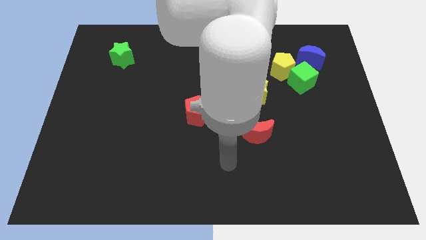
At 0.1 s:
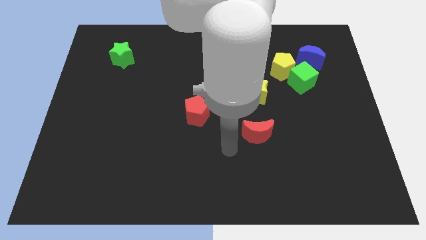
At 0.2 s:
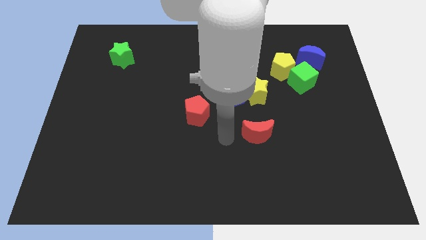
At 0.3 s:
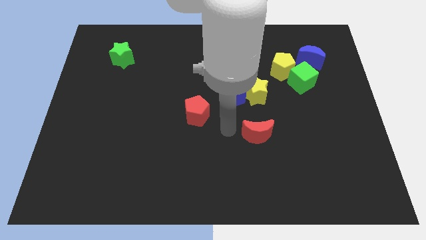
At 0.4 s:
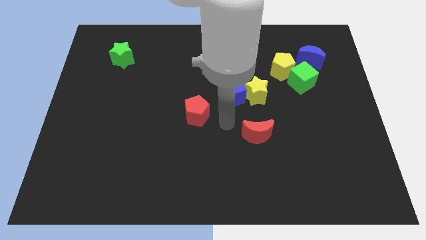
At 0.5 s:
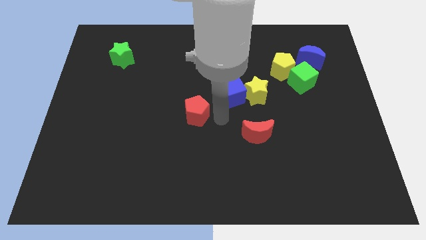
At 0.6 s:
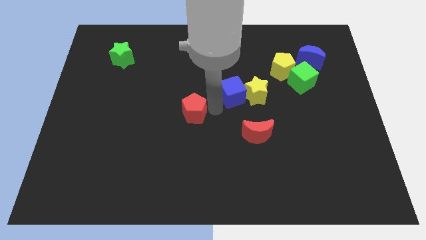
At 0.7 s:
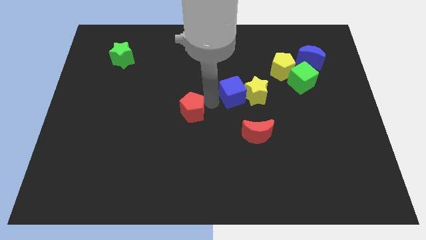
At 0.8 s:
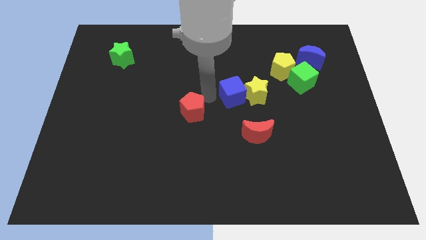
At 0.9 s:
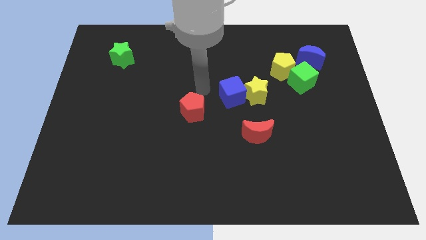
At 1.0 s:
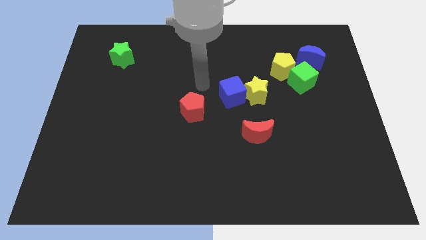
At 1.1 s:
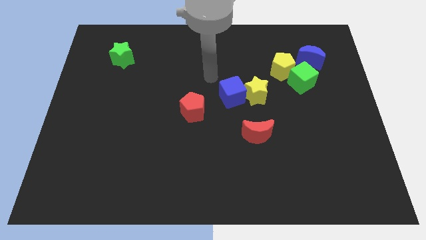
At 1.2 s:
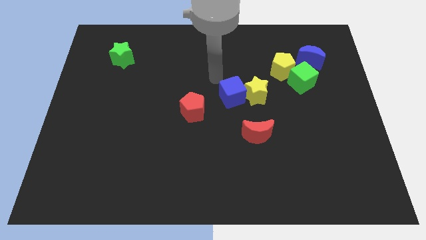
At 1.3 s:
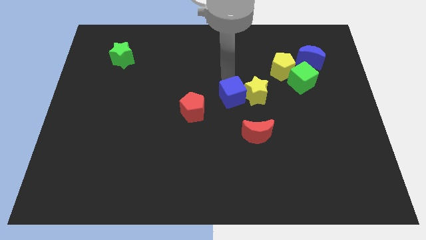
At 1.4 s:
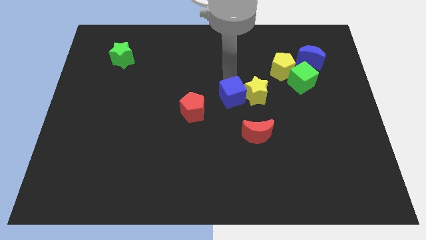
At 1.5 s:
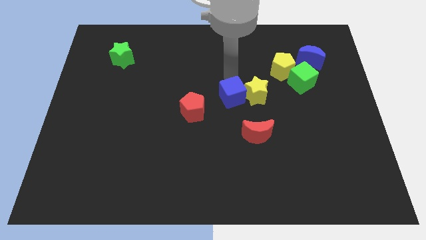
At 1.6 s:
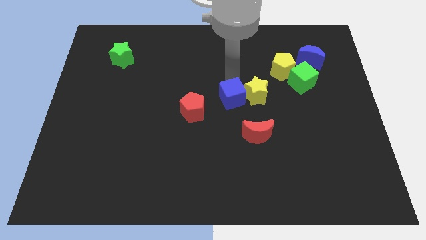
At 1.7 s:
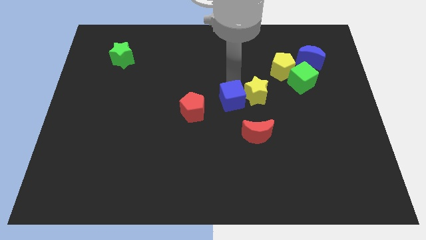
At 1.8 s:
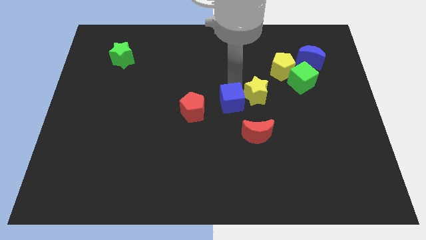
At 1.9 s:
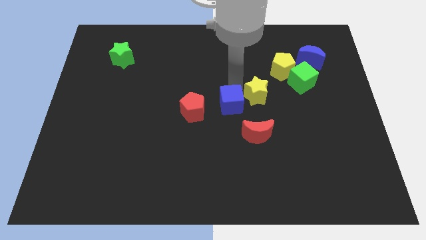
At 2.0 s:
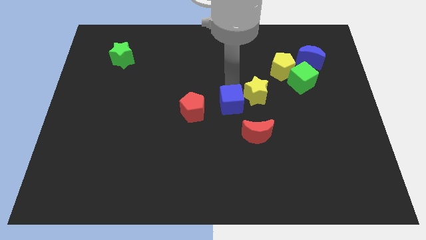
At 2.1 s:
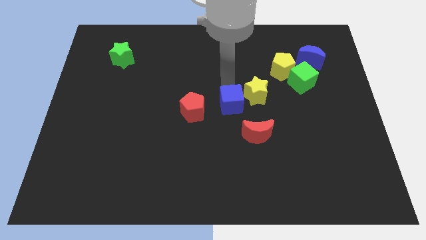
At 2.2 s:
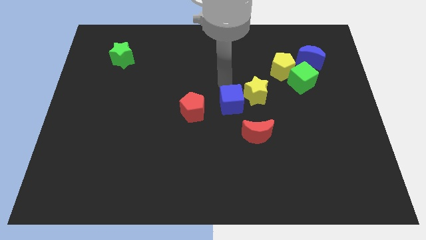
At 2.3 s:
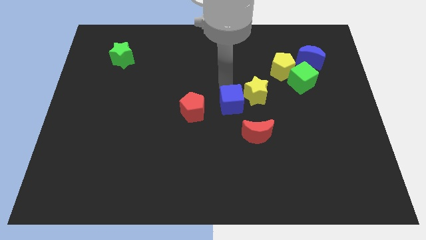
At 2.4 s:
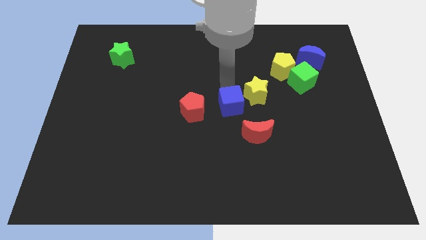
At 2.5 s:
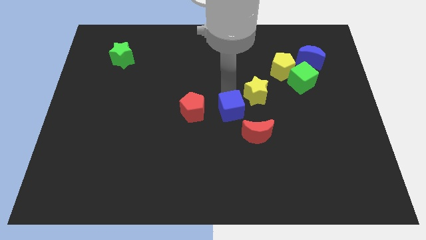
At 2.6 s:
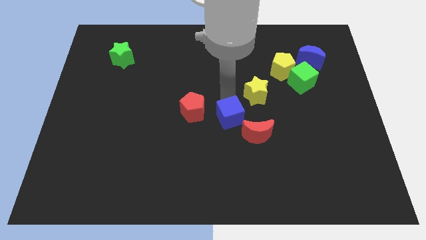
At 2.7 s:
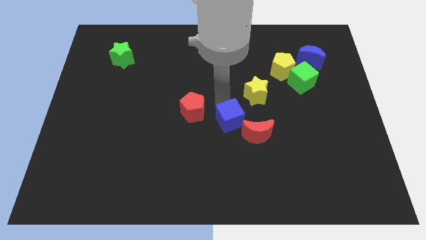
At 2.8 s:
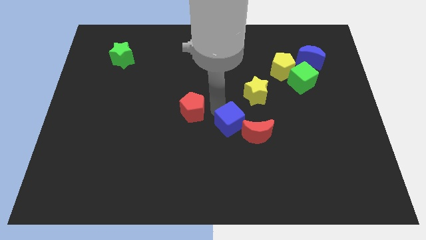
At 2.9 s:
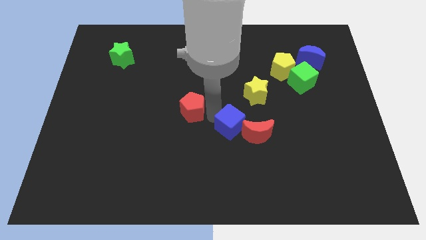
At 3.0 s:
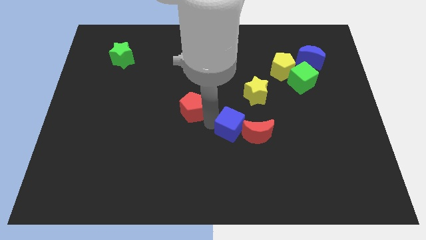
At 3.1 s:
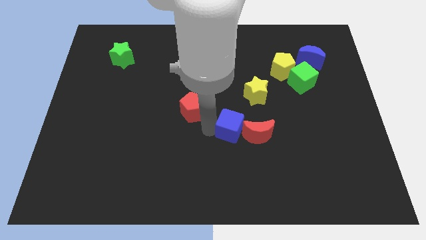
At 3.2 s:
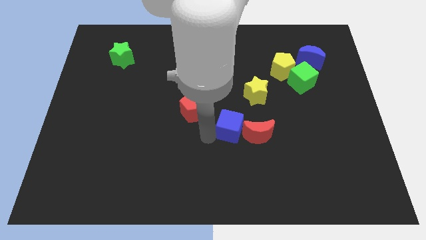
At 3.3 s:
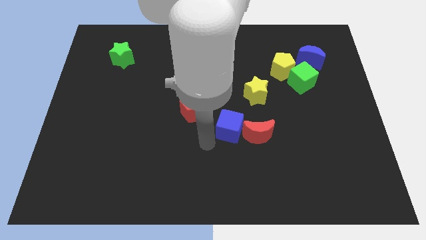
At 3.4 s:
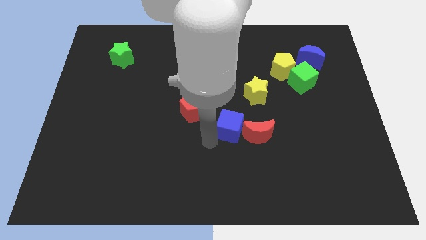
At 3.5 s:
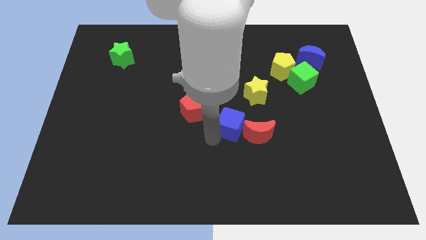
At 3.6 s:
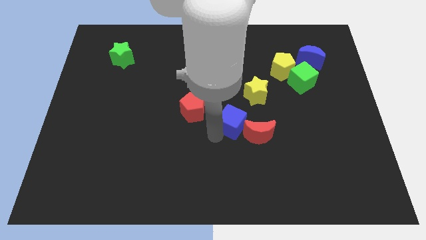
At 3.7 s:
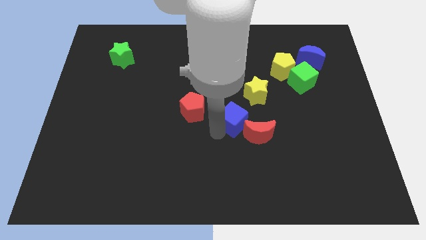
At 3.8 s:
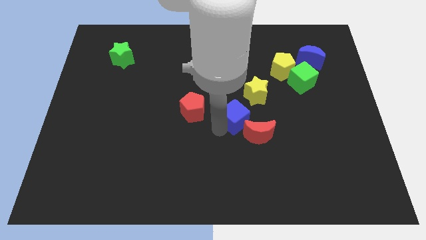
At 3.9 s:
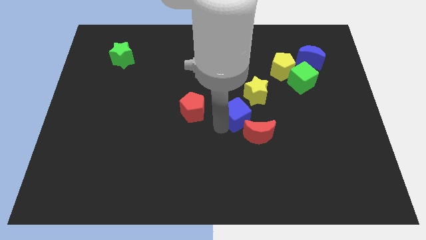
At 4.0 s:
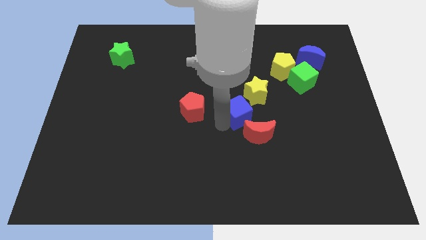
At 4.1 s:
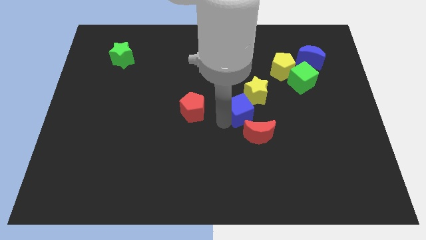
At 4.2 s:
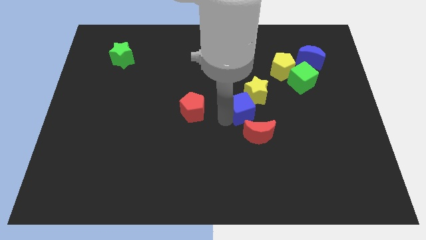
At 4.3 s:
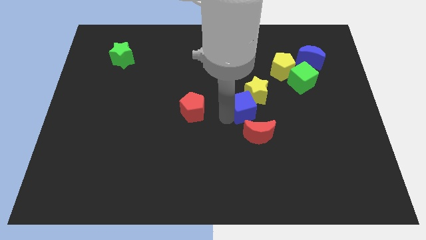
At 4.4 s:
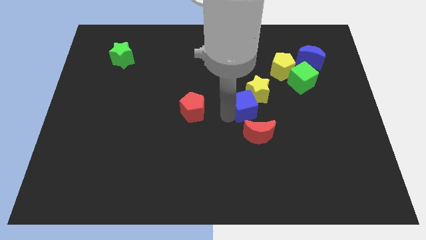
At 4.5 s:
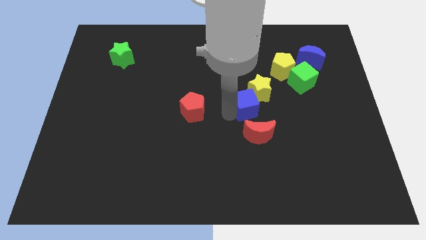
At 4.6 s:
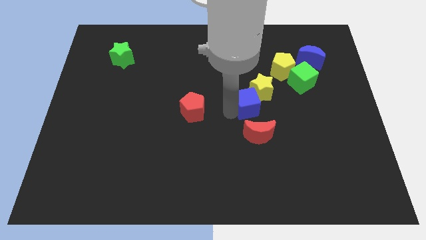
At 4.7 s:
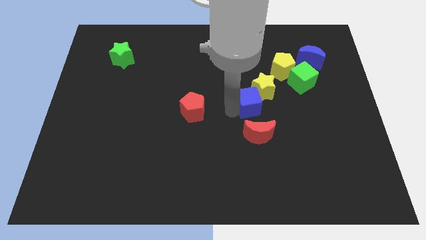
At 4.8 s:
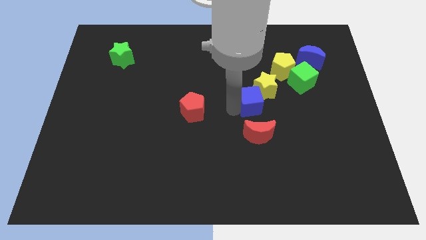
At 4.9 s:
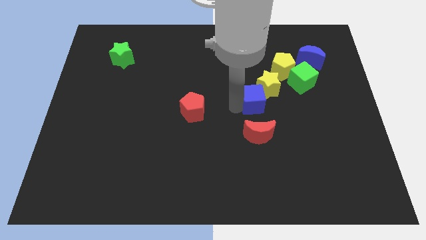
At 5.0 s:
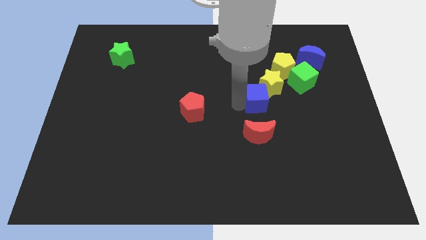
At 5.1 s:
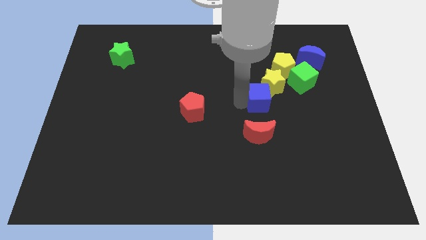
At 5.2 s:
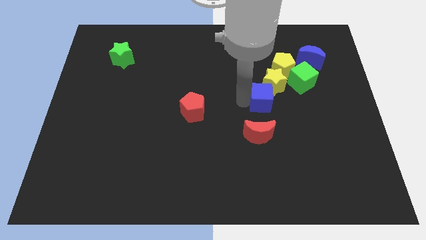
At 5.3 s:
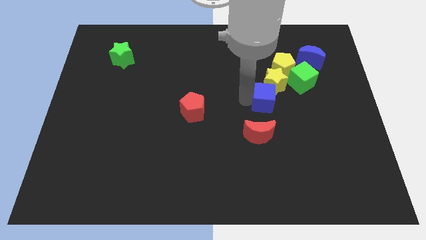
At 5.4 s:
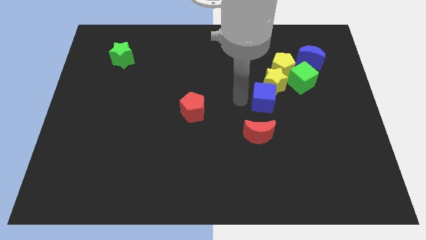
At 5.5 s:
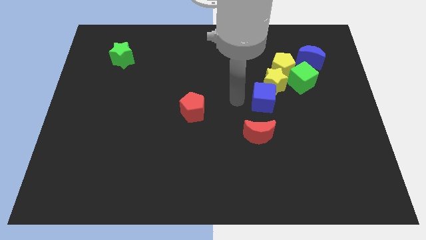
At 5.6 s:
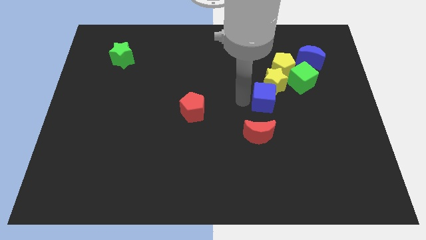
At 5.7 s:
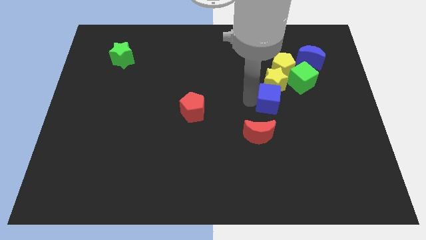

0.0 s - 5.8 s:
move the blue cube to the bottom of the yellow pentagon

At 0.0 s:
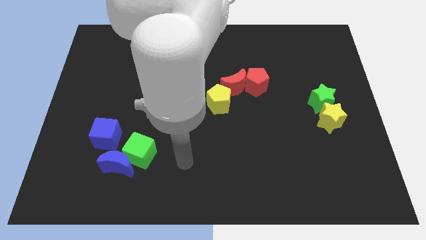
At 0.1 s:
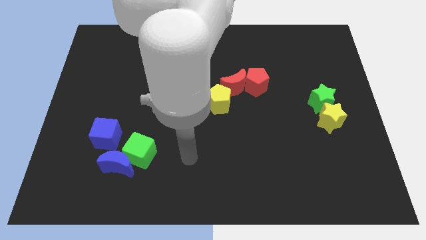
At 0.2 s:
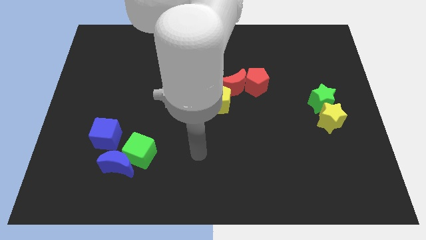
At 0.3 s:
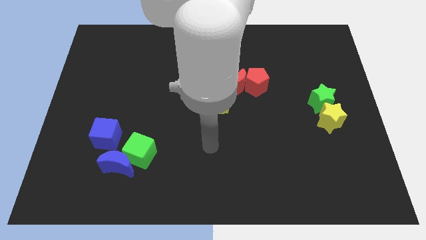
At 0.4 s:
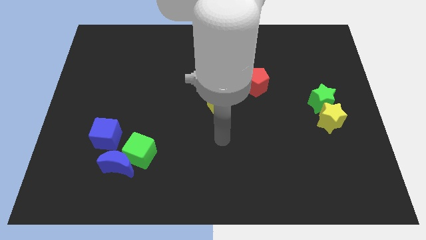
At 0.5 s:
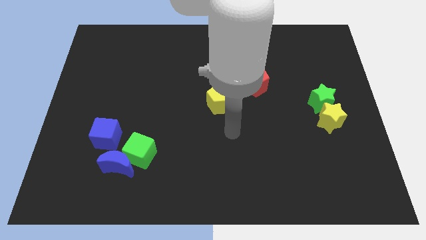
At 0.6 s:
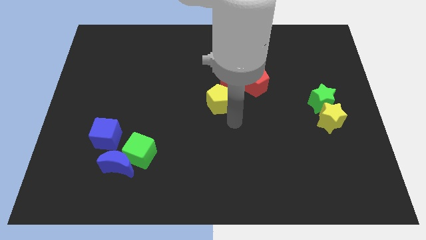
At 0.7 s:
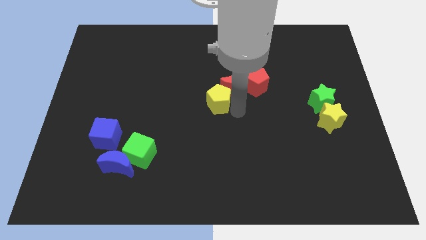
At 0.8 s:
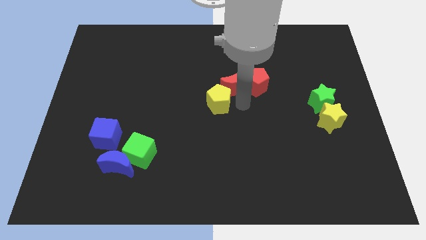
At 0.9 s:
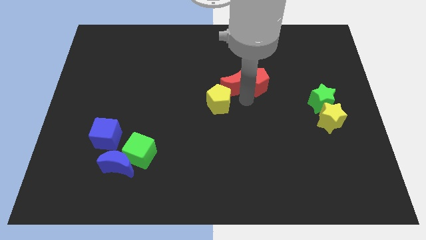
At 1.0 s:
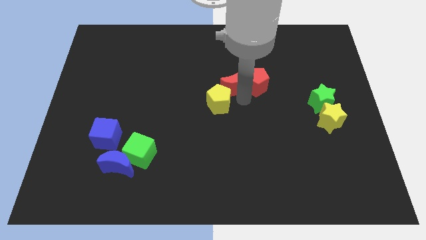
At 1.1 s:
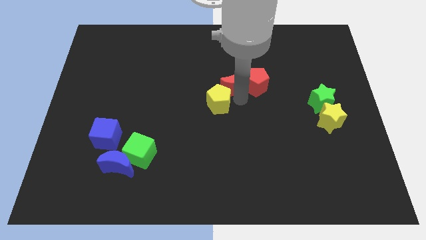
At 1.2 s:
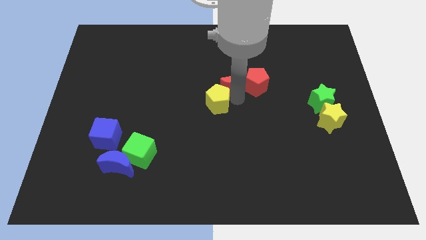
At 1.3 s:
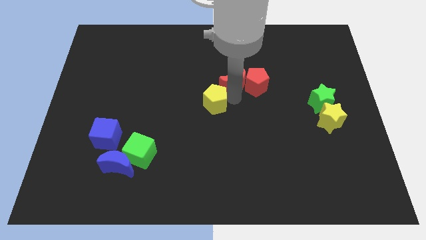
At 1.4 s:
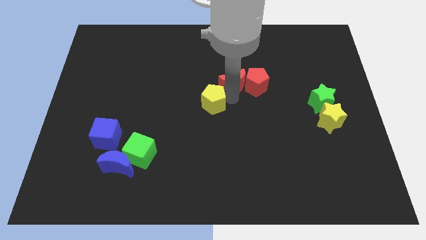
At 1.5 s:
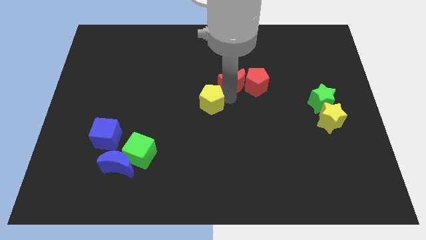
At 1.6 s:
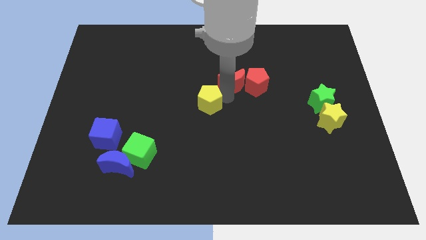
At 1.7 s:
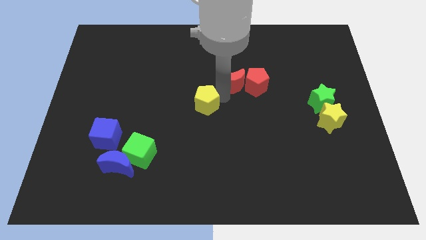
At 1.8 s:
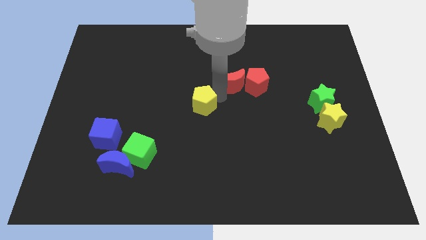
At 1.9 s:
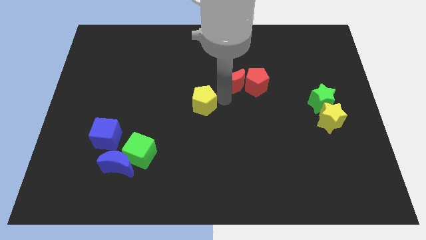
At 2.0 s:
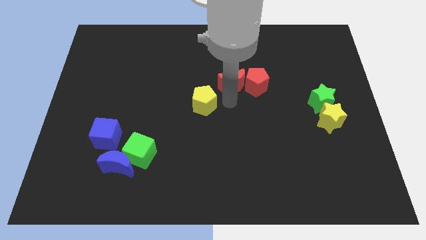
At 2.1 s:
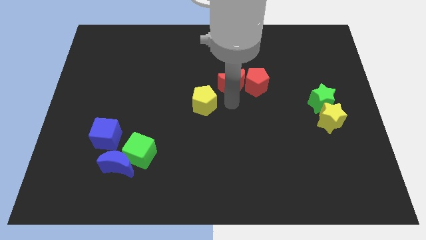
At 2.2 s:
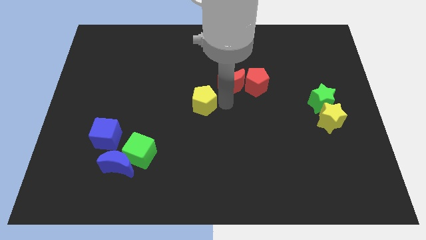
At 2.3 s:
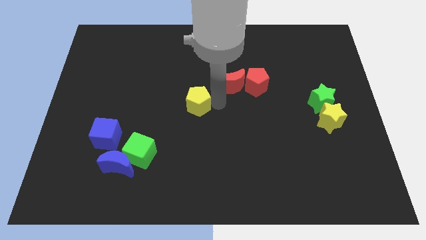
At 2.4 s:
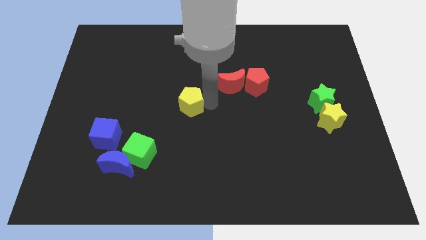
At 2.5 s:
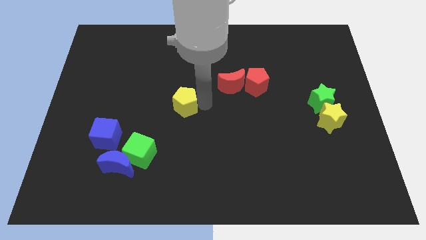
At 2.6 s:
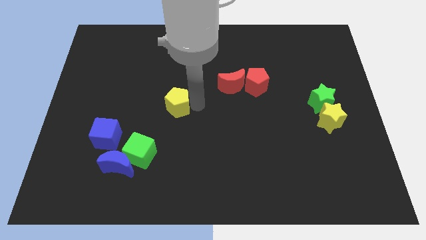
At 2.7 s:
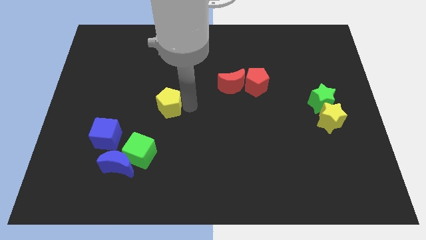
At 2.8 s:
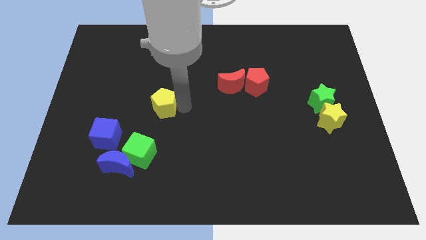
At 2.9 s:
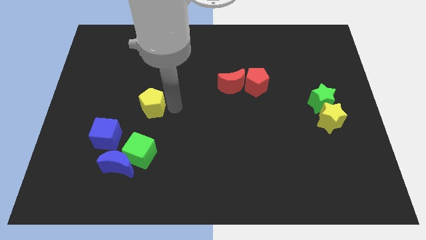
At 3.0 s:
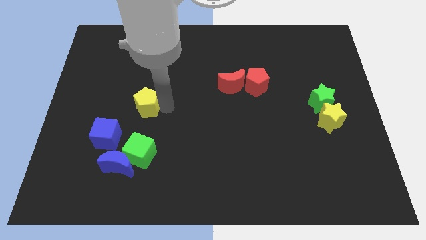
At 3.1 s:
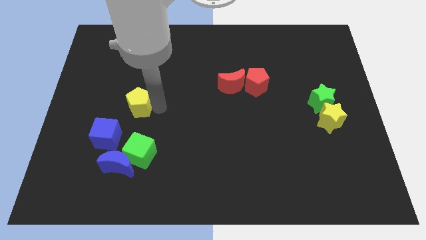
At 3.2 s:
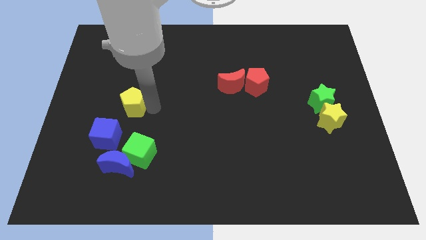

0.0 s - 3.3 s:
put the yellow pentagon above the blue cube
